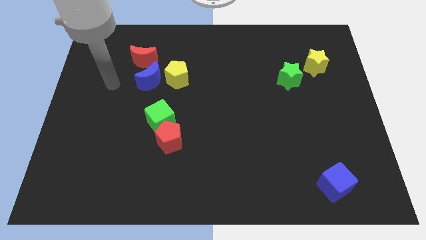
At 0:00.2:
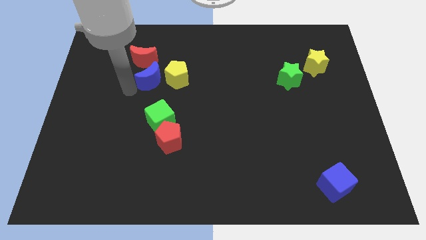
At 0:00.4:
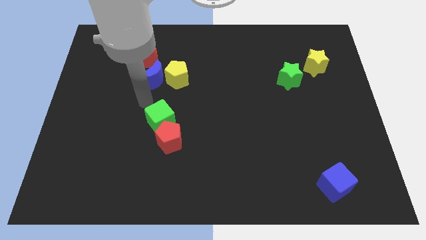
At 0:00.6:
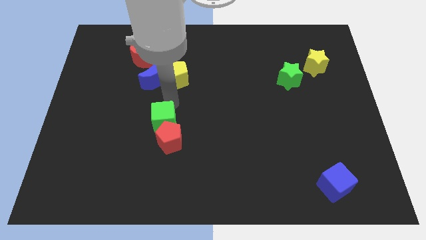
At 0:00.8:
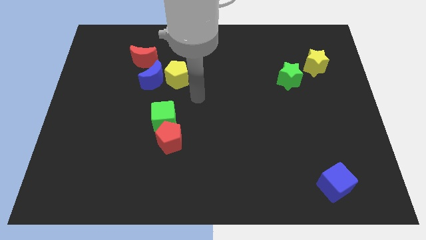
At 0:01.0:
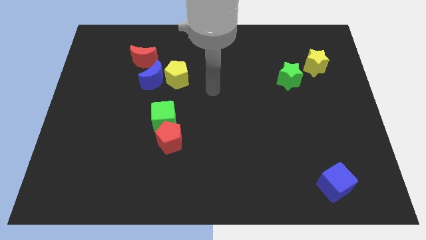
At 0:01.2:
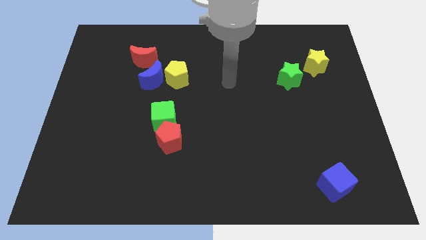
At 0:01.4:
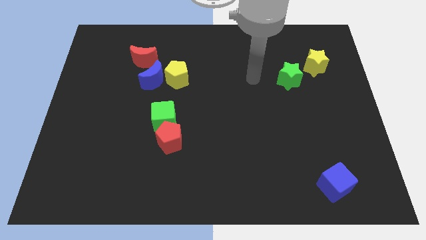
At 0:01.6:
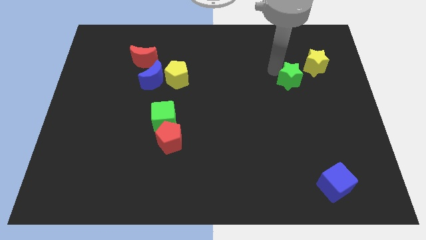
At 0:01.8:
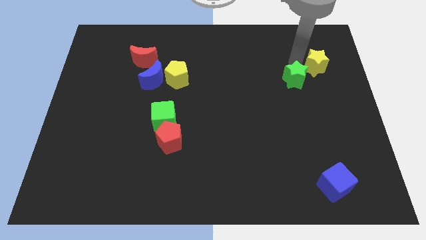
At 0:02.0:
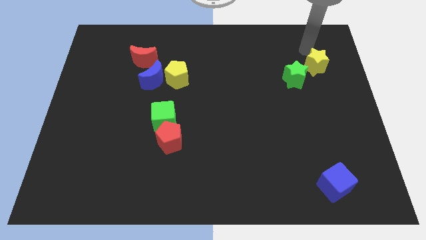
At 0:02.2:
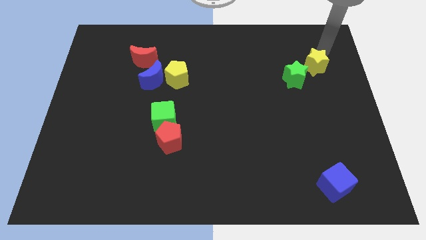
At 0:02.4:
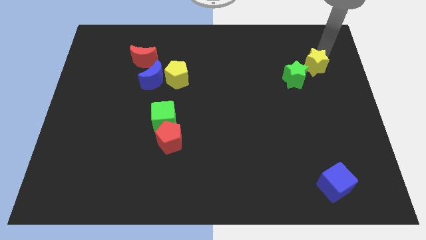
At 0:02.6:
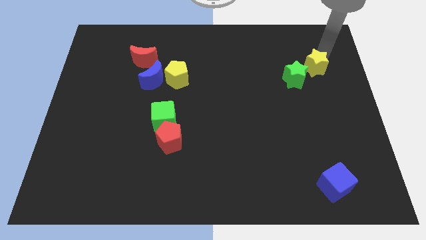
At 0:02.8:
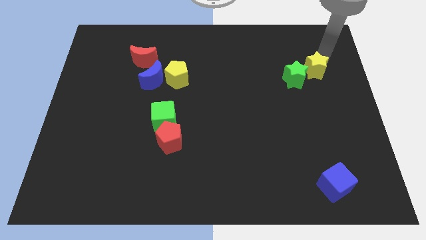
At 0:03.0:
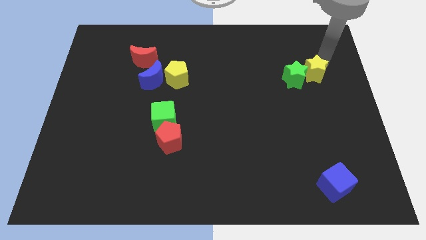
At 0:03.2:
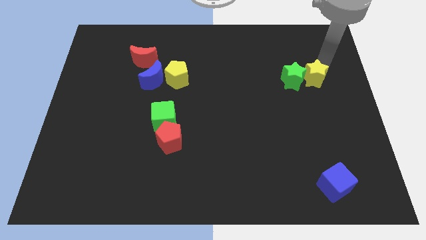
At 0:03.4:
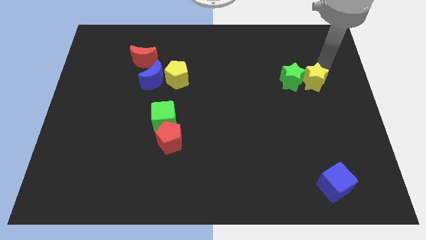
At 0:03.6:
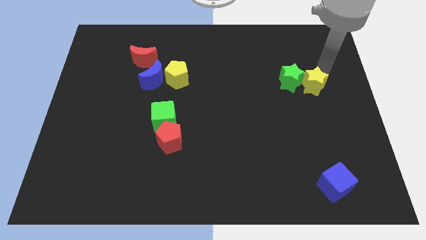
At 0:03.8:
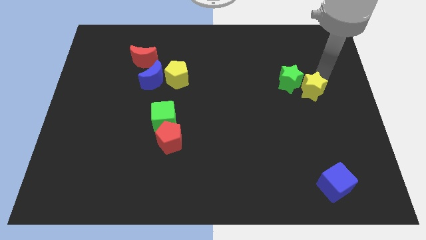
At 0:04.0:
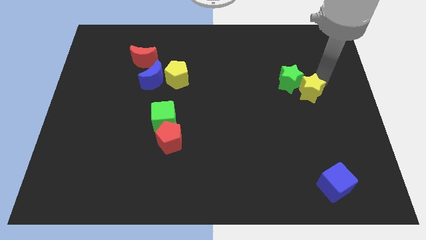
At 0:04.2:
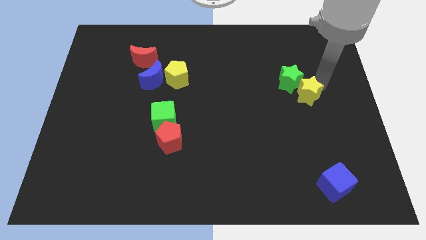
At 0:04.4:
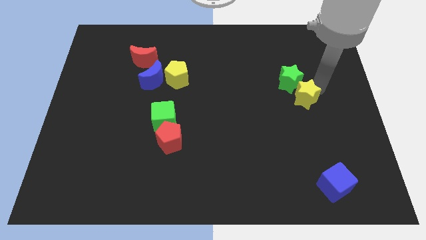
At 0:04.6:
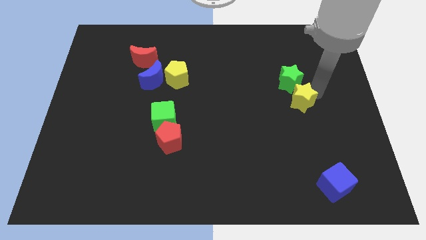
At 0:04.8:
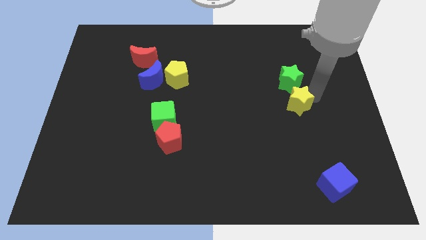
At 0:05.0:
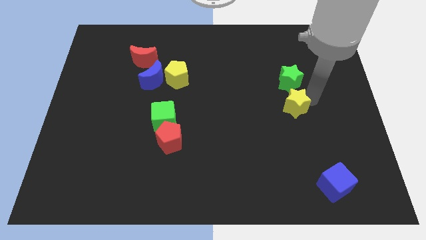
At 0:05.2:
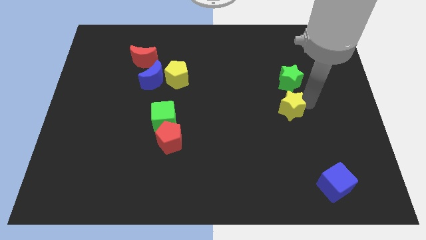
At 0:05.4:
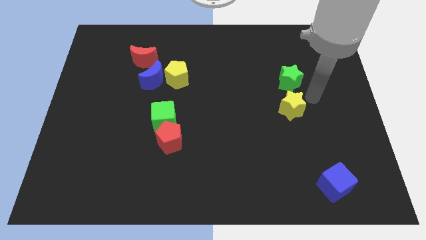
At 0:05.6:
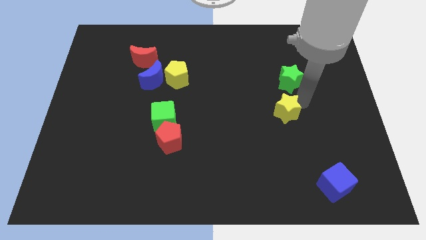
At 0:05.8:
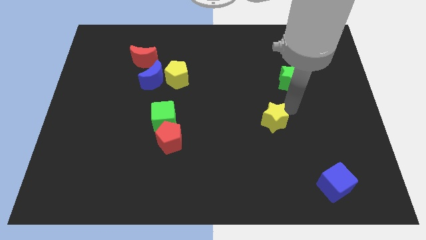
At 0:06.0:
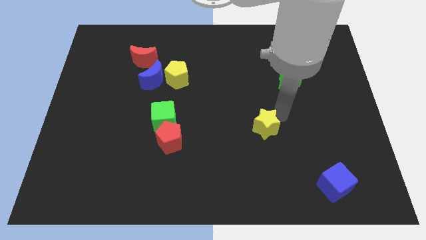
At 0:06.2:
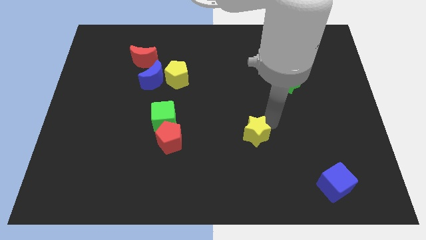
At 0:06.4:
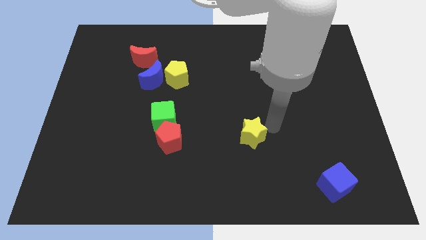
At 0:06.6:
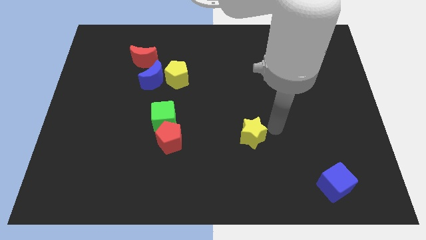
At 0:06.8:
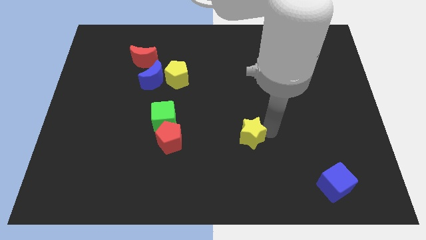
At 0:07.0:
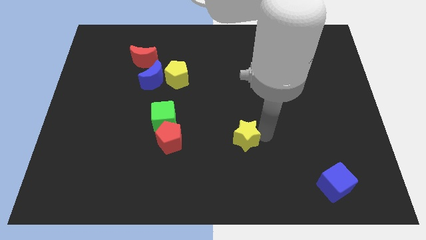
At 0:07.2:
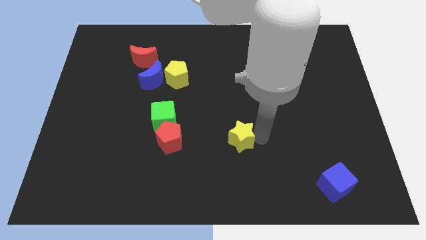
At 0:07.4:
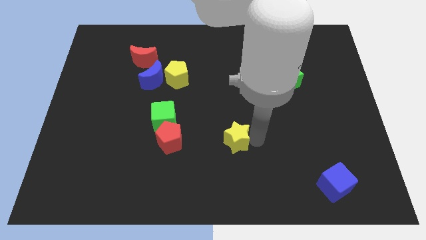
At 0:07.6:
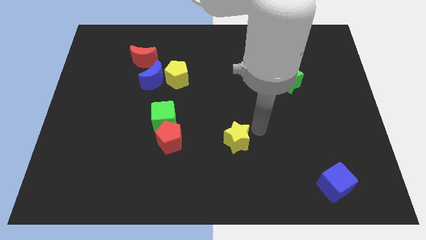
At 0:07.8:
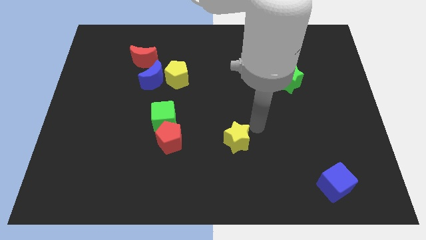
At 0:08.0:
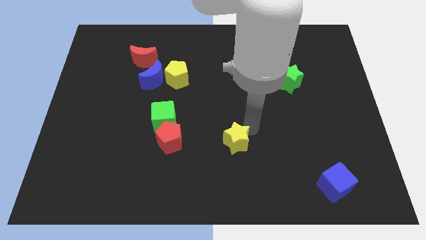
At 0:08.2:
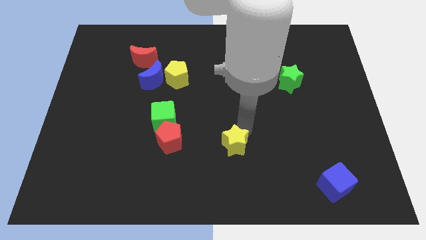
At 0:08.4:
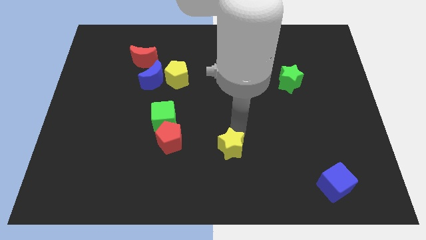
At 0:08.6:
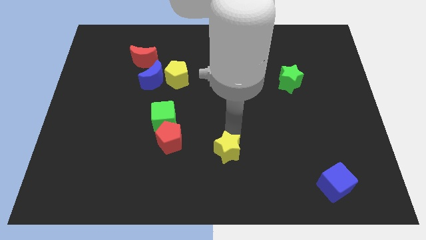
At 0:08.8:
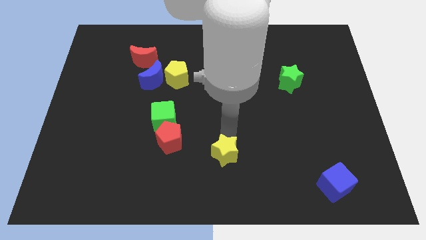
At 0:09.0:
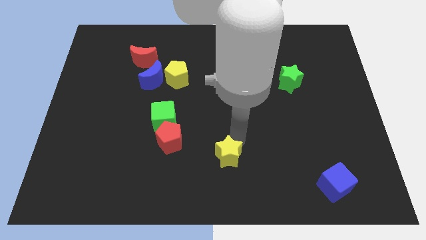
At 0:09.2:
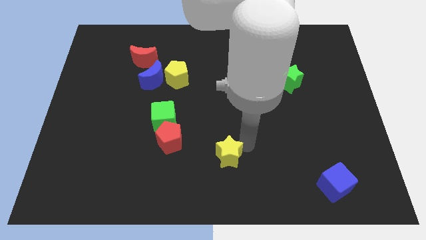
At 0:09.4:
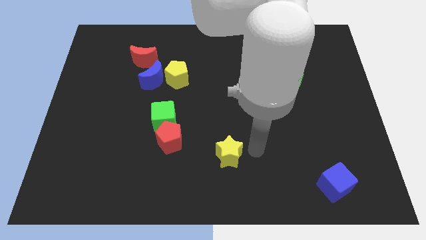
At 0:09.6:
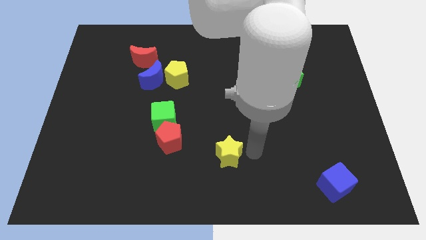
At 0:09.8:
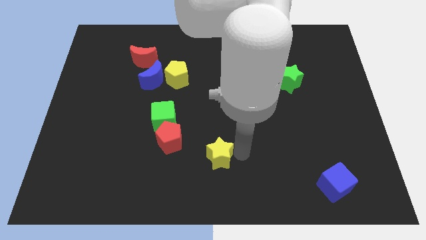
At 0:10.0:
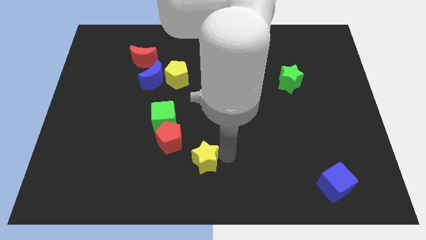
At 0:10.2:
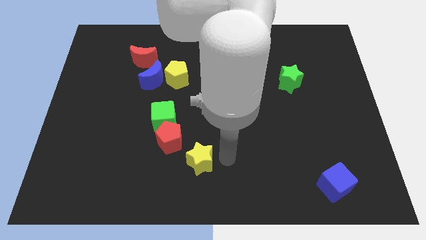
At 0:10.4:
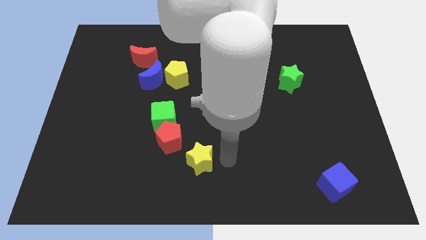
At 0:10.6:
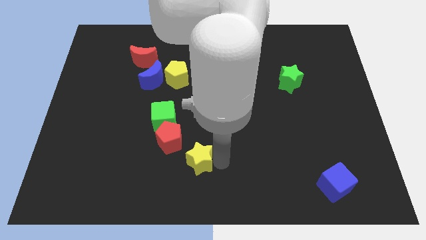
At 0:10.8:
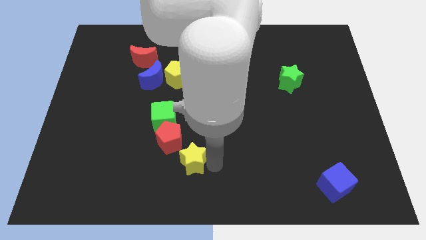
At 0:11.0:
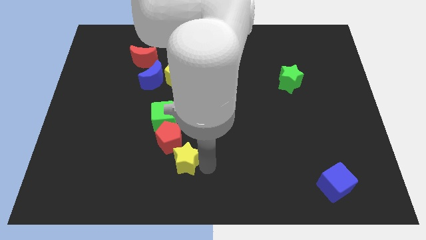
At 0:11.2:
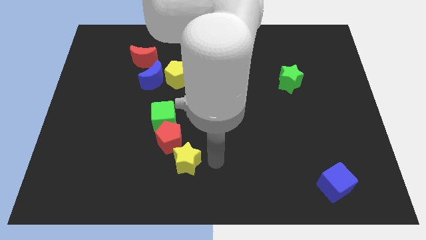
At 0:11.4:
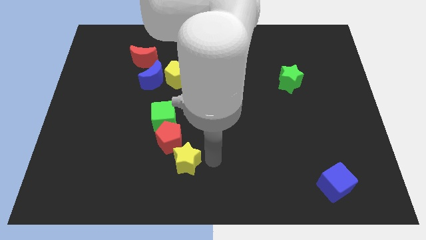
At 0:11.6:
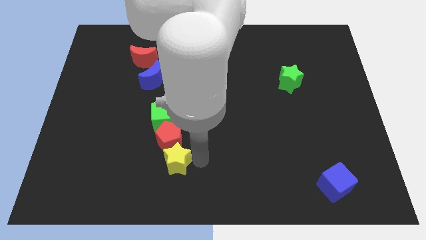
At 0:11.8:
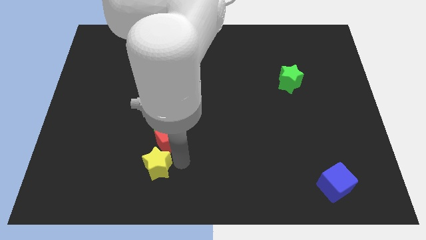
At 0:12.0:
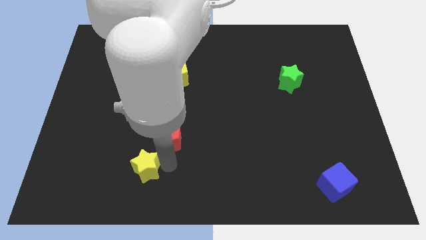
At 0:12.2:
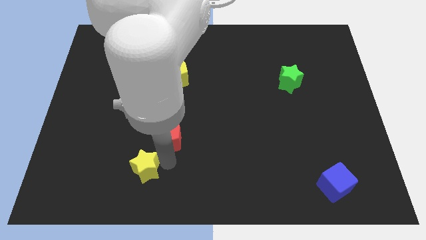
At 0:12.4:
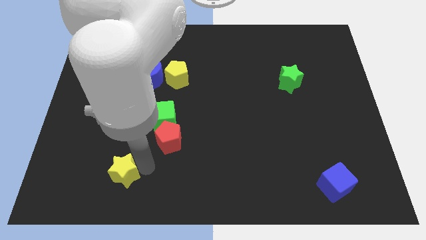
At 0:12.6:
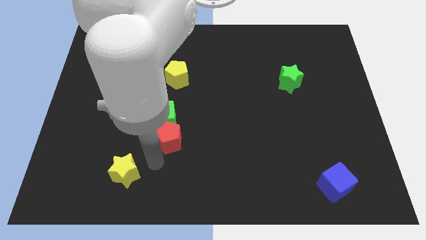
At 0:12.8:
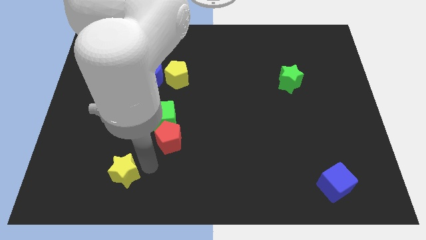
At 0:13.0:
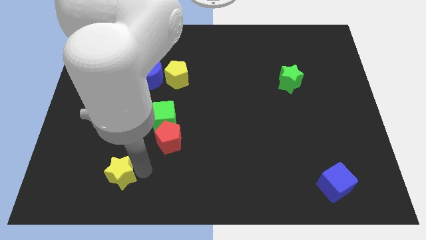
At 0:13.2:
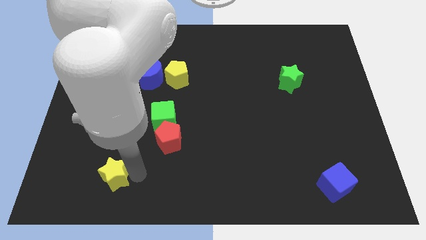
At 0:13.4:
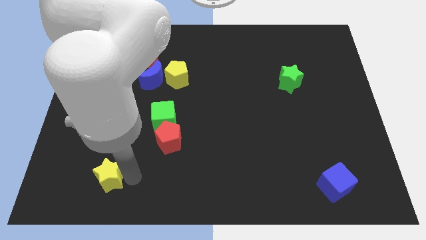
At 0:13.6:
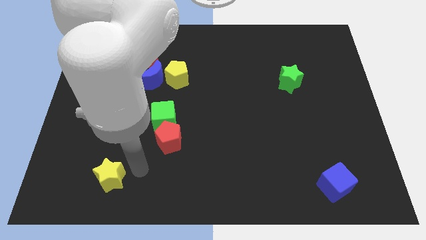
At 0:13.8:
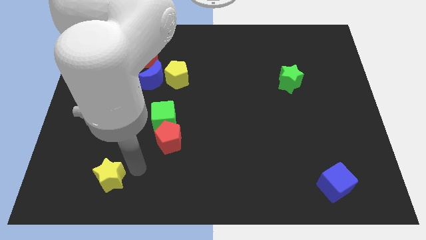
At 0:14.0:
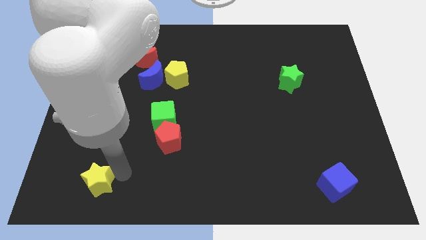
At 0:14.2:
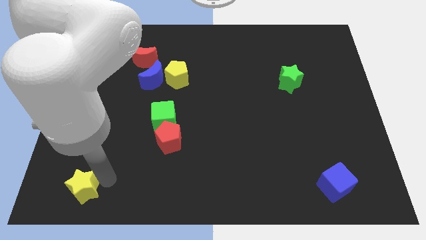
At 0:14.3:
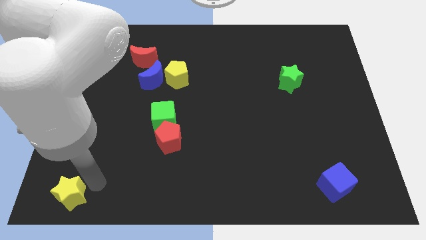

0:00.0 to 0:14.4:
push the yellow star to the bottom left

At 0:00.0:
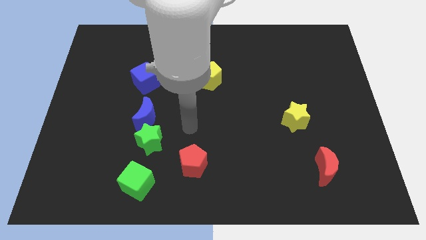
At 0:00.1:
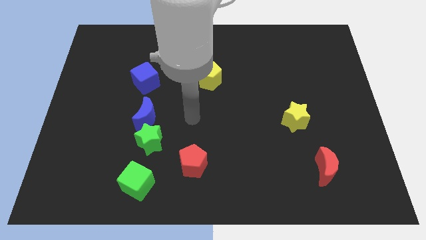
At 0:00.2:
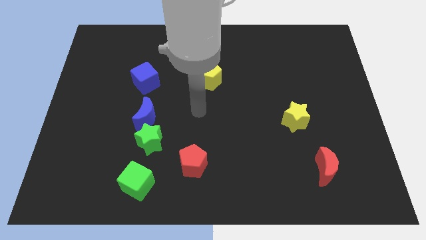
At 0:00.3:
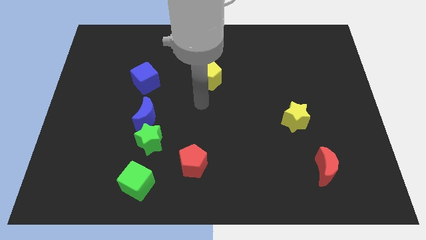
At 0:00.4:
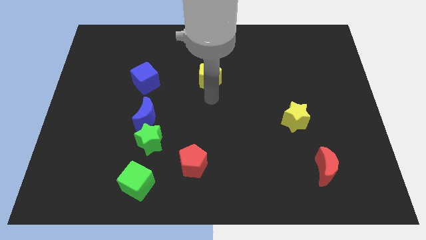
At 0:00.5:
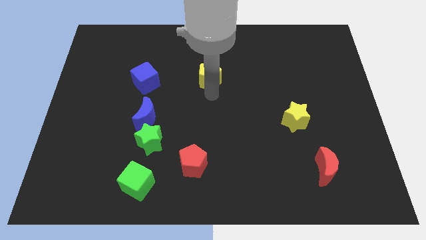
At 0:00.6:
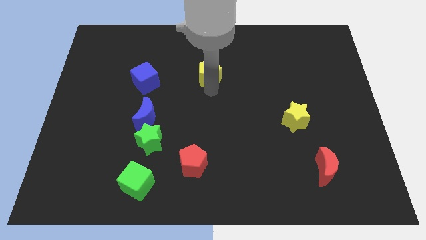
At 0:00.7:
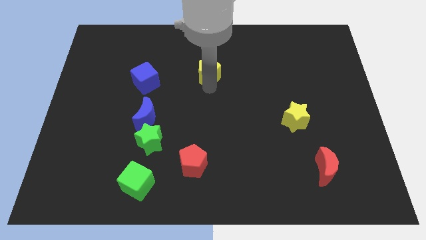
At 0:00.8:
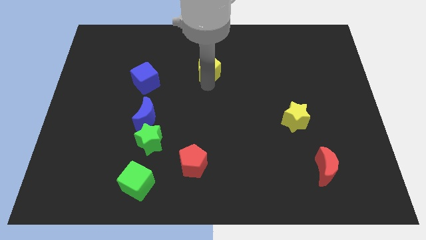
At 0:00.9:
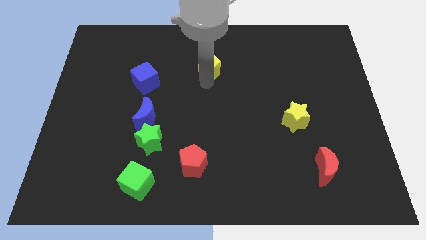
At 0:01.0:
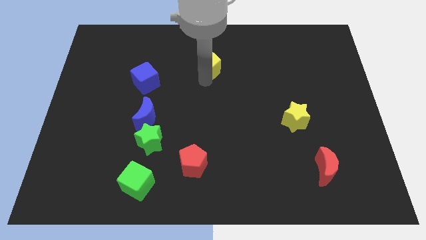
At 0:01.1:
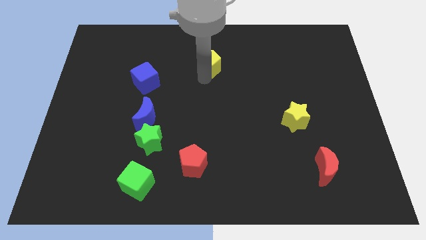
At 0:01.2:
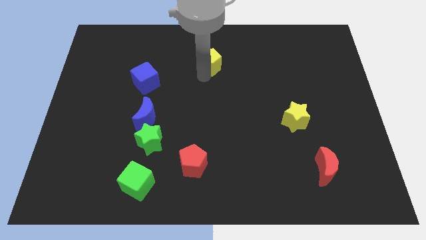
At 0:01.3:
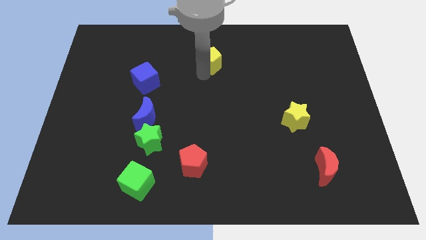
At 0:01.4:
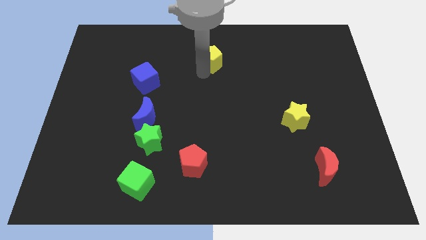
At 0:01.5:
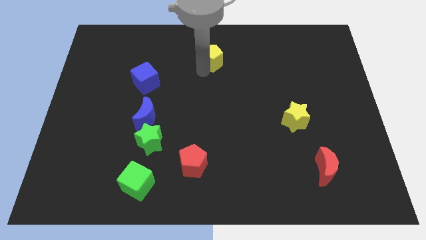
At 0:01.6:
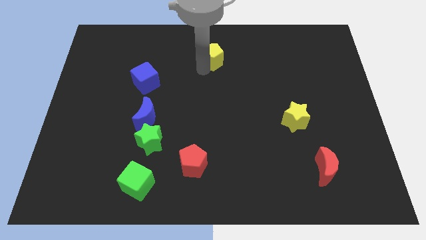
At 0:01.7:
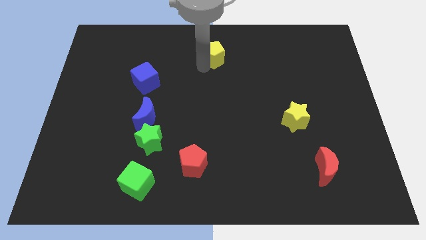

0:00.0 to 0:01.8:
put the yellow pentagon to the top side
